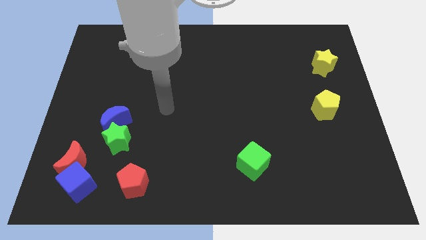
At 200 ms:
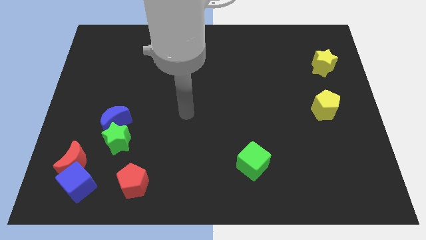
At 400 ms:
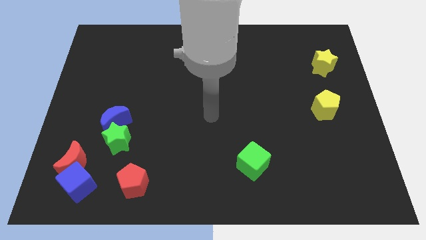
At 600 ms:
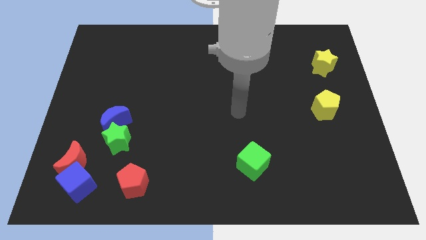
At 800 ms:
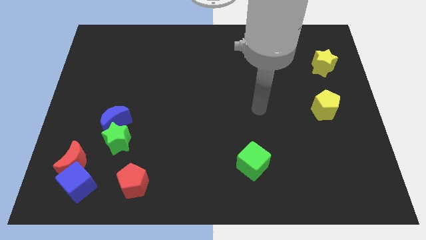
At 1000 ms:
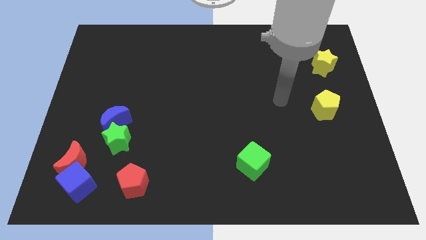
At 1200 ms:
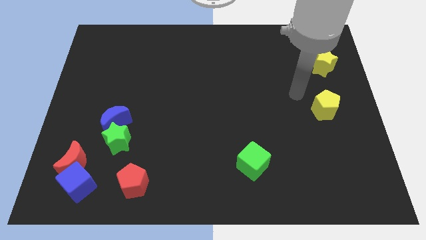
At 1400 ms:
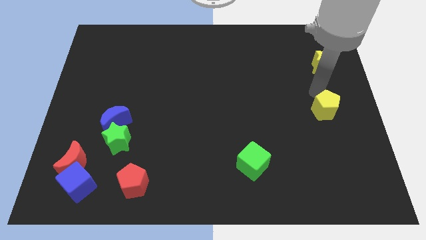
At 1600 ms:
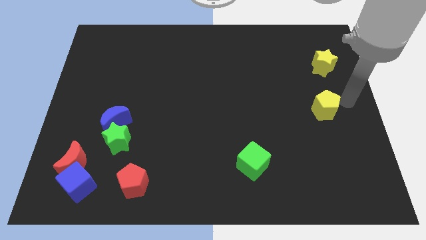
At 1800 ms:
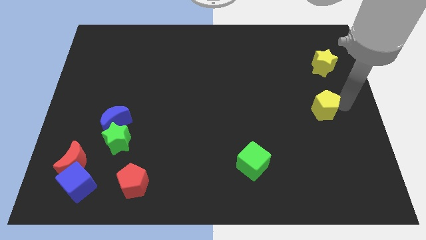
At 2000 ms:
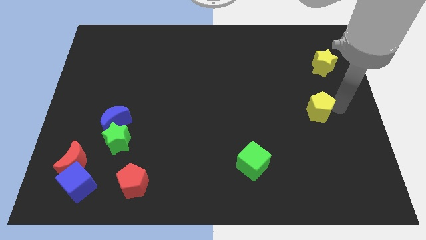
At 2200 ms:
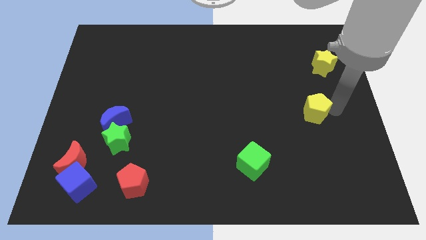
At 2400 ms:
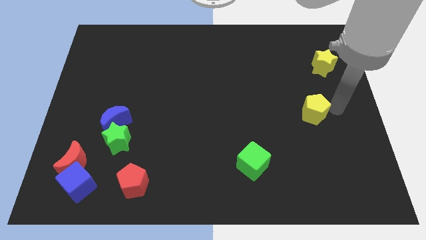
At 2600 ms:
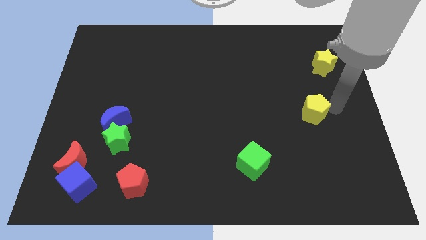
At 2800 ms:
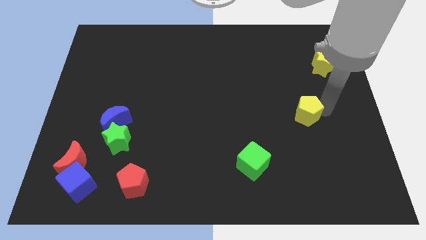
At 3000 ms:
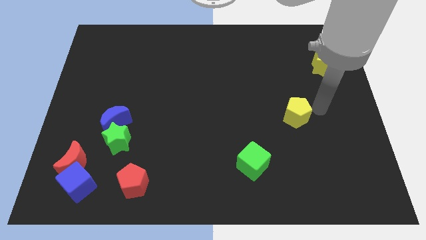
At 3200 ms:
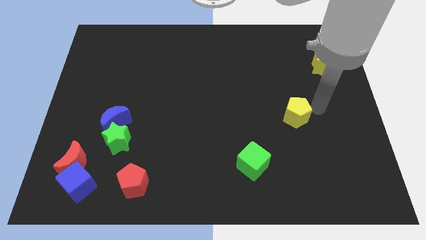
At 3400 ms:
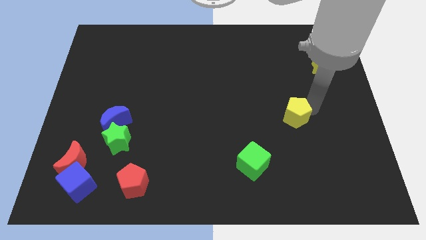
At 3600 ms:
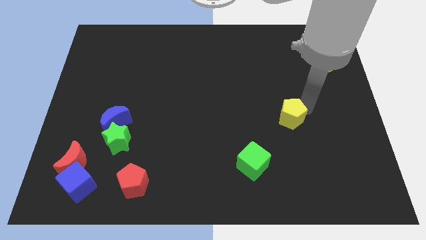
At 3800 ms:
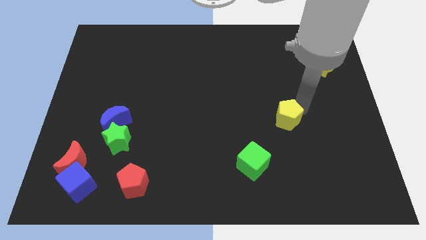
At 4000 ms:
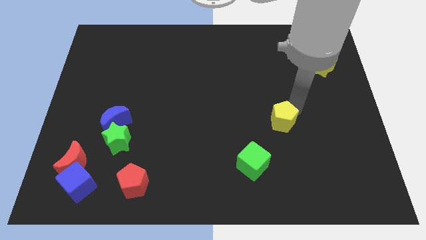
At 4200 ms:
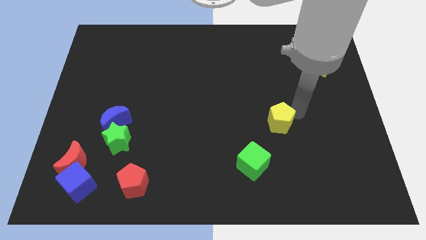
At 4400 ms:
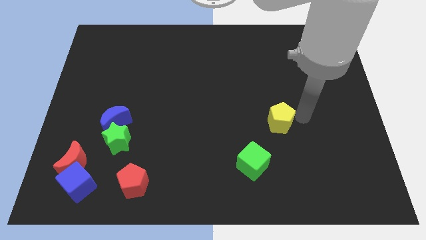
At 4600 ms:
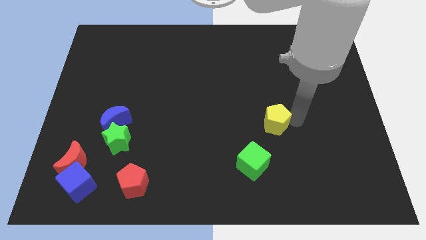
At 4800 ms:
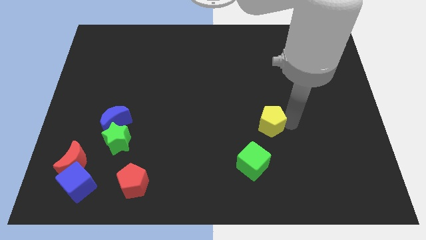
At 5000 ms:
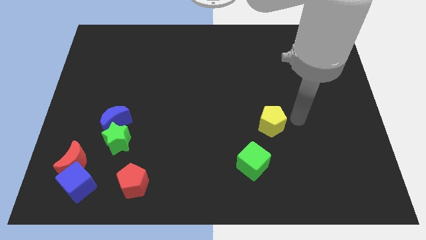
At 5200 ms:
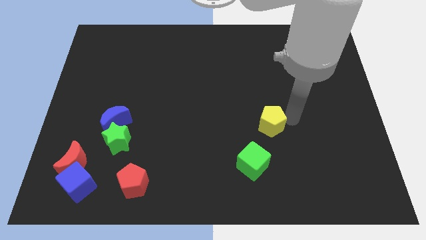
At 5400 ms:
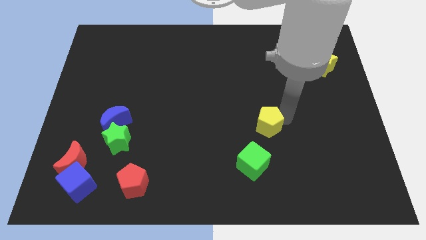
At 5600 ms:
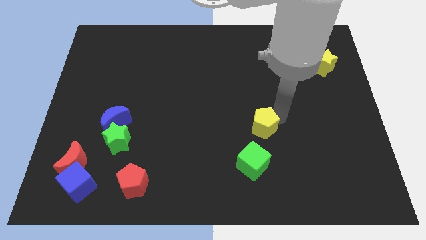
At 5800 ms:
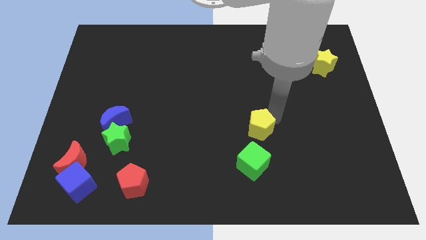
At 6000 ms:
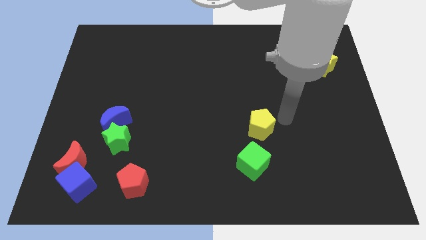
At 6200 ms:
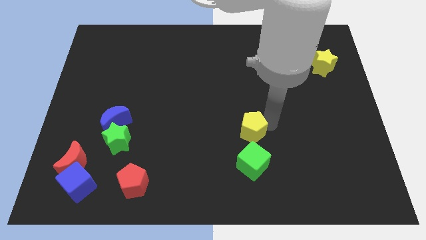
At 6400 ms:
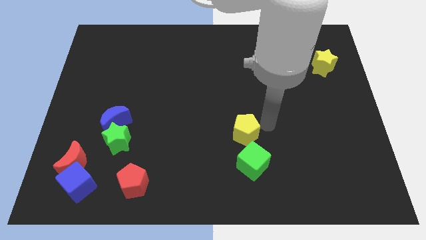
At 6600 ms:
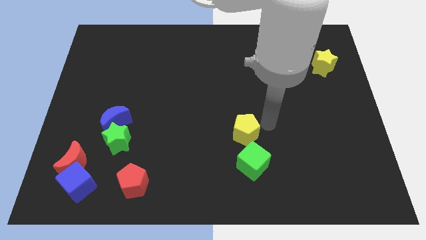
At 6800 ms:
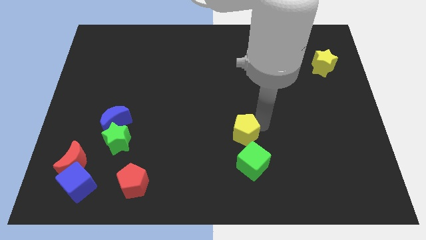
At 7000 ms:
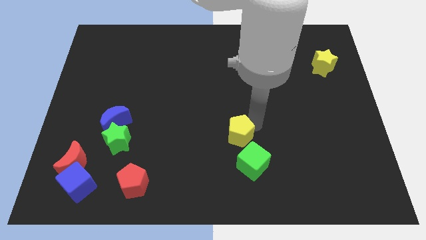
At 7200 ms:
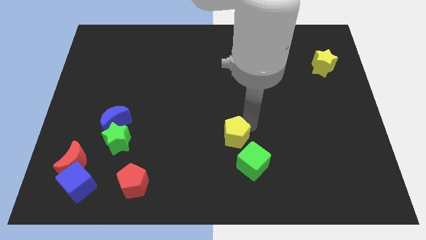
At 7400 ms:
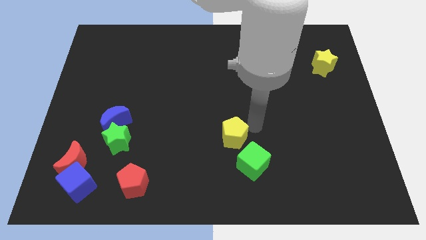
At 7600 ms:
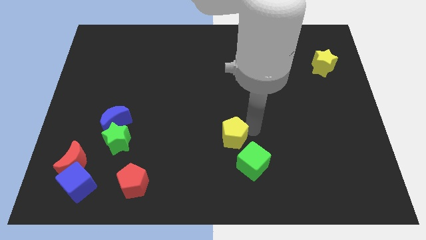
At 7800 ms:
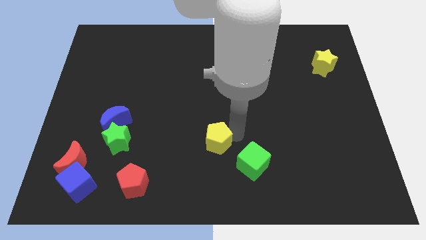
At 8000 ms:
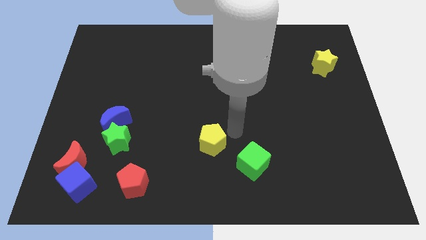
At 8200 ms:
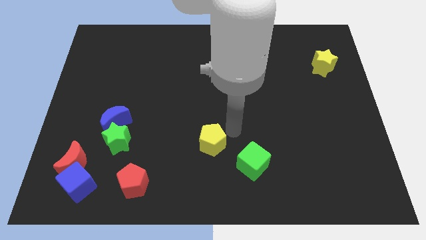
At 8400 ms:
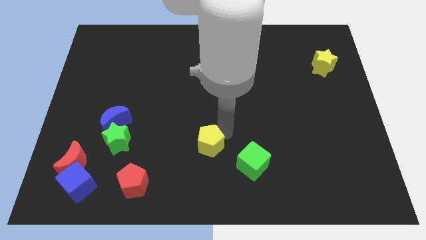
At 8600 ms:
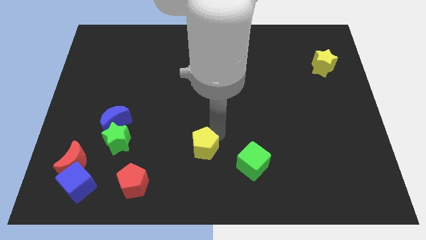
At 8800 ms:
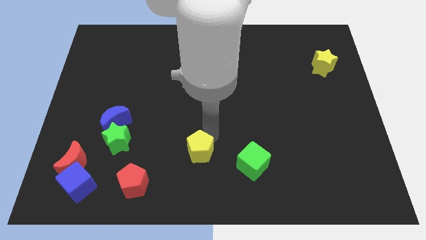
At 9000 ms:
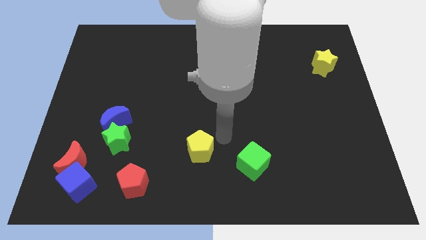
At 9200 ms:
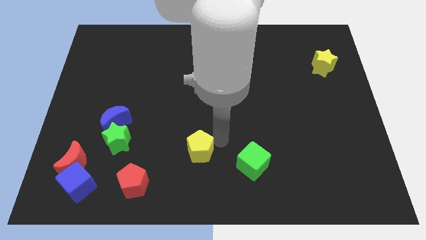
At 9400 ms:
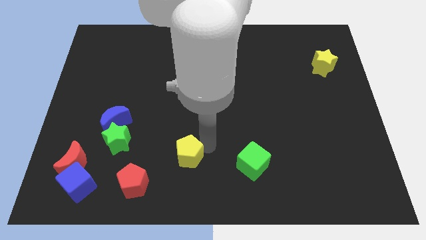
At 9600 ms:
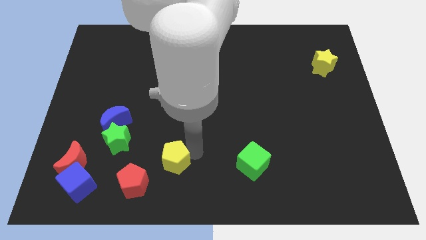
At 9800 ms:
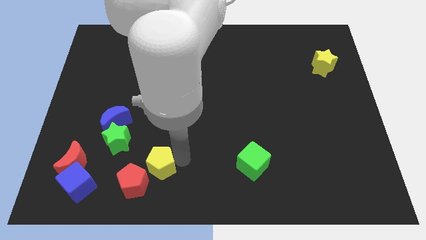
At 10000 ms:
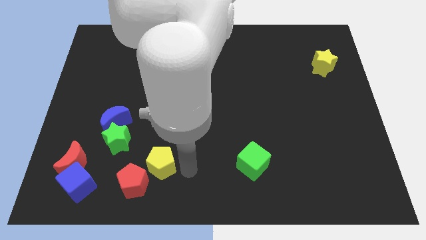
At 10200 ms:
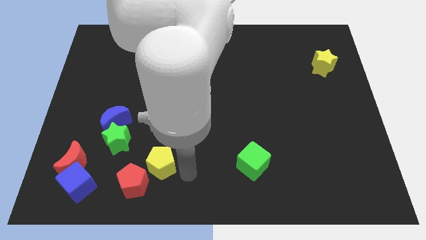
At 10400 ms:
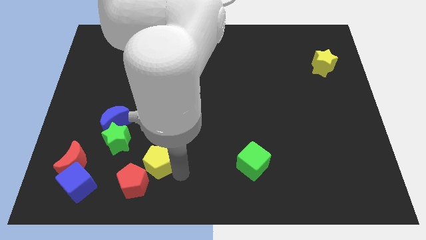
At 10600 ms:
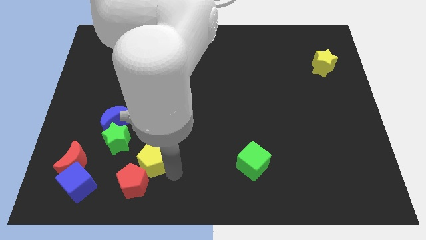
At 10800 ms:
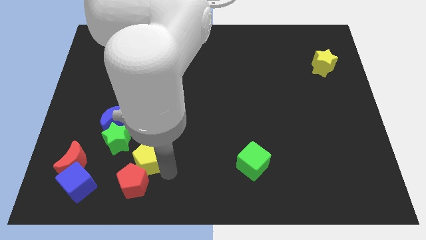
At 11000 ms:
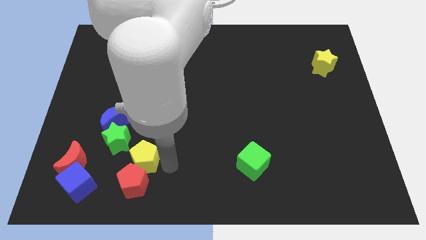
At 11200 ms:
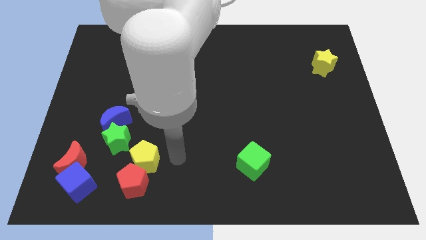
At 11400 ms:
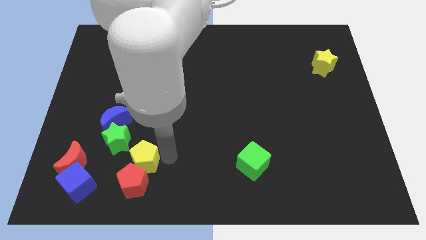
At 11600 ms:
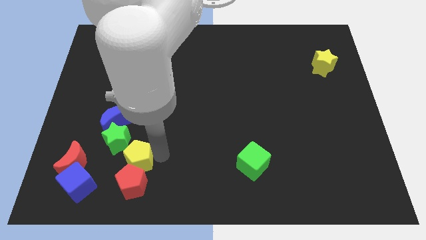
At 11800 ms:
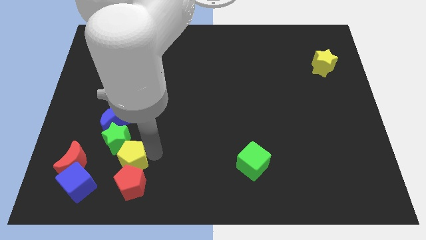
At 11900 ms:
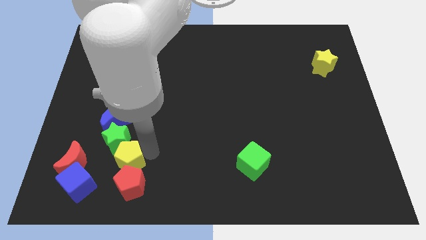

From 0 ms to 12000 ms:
slide the yellow pentagon below the blue moon
